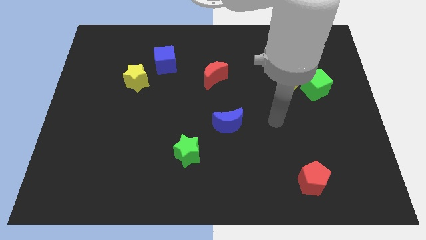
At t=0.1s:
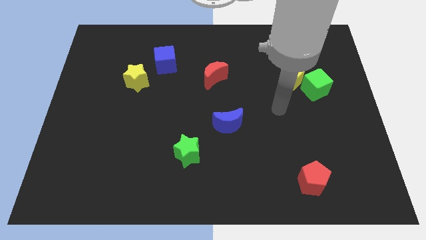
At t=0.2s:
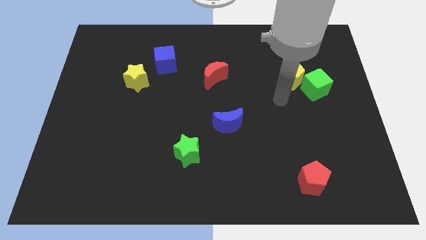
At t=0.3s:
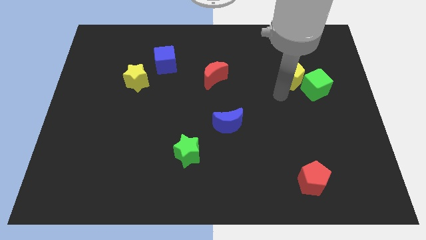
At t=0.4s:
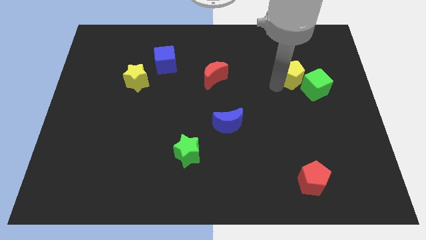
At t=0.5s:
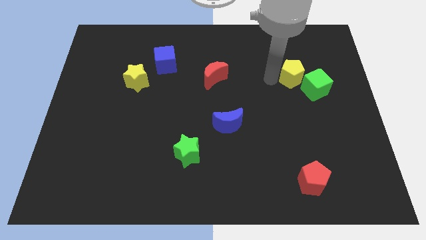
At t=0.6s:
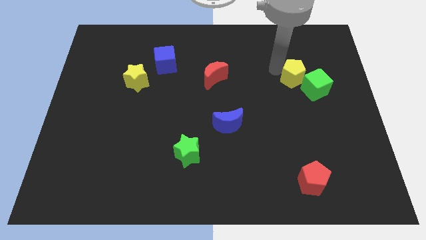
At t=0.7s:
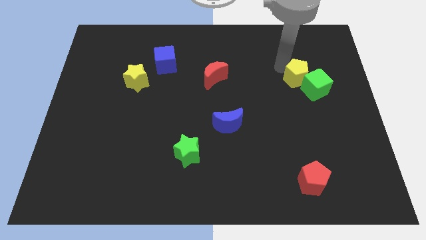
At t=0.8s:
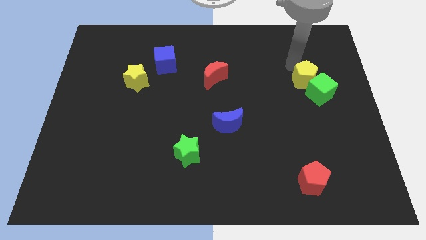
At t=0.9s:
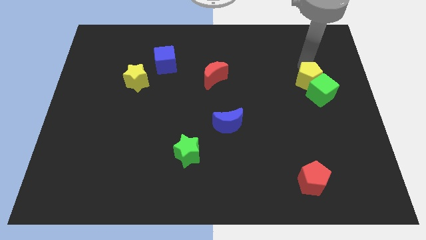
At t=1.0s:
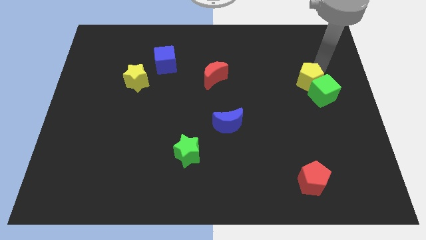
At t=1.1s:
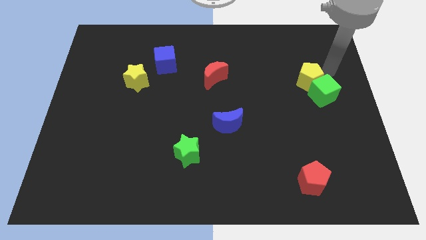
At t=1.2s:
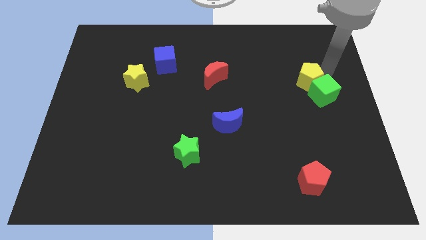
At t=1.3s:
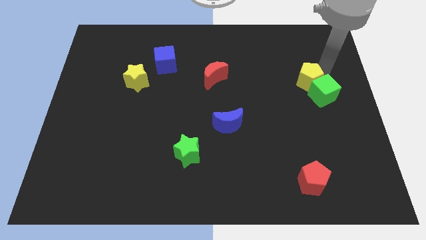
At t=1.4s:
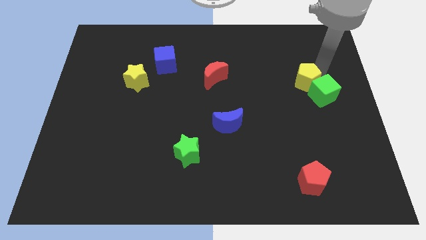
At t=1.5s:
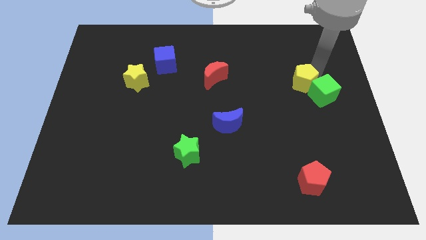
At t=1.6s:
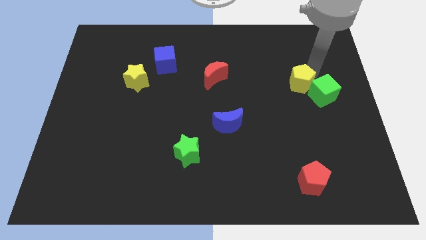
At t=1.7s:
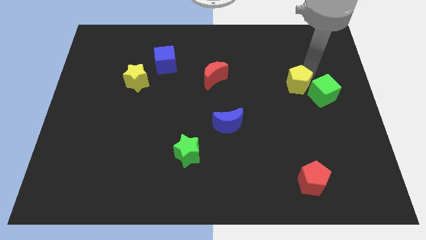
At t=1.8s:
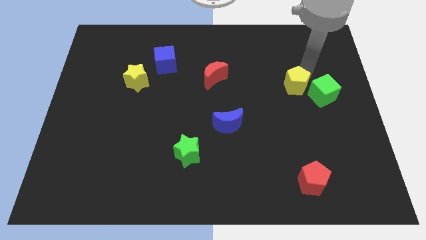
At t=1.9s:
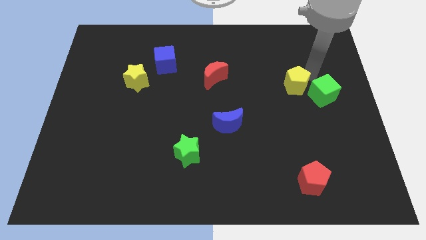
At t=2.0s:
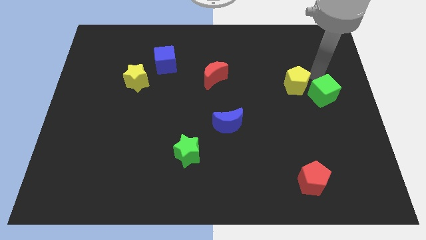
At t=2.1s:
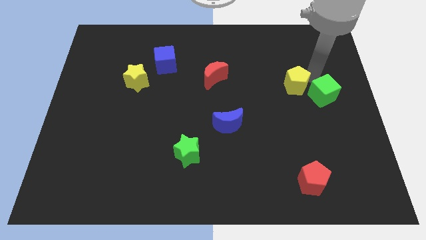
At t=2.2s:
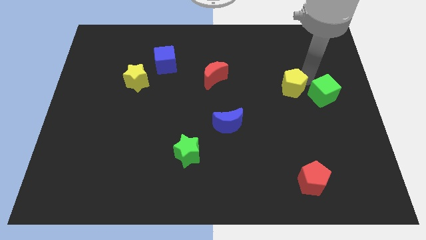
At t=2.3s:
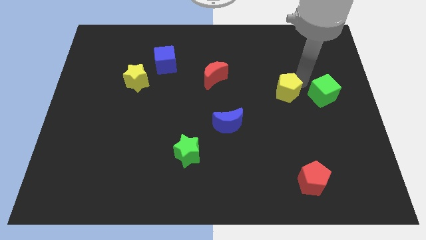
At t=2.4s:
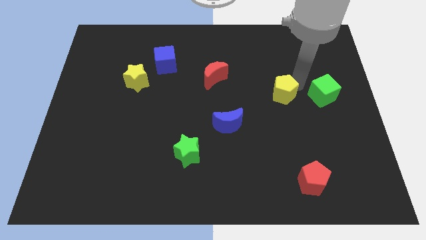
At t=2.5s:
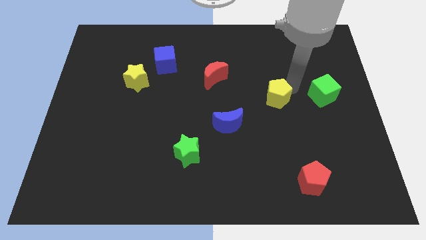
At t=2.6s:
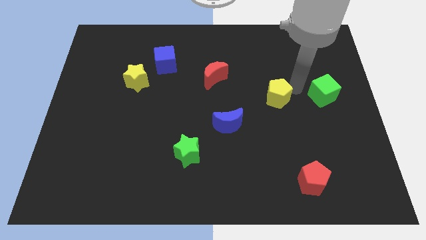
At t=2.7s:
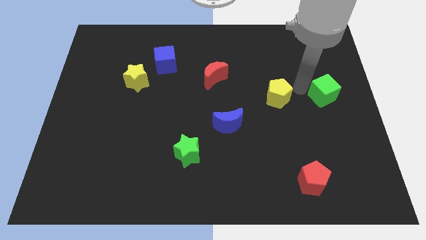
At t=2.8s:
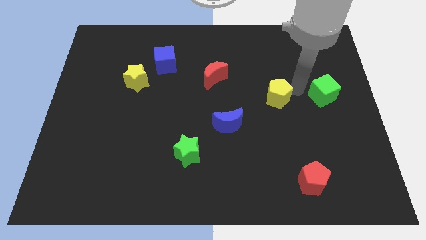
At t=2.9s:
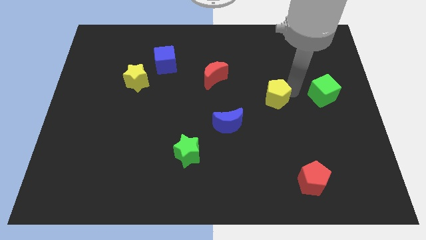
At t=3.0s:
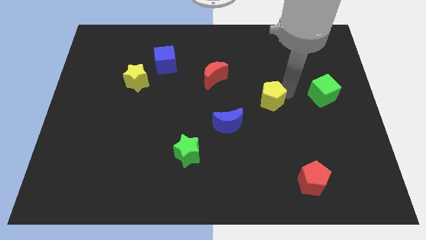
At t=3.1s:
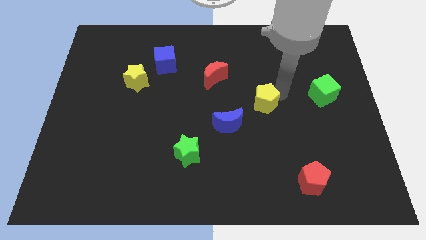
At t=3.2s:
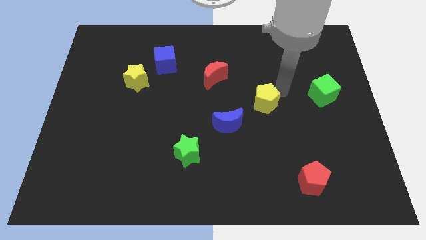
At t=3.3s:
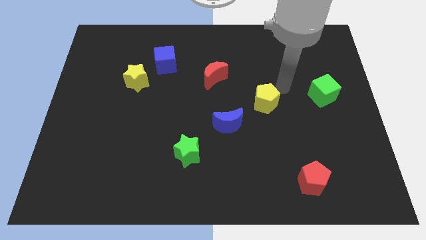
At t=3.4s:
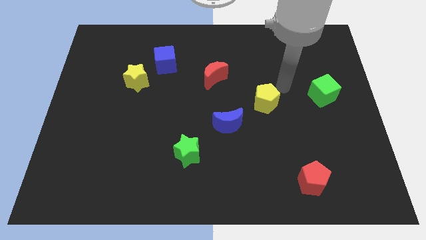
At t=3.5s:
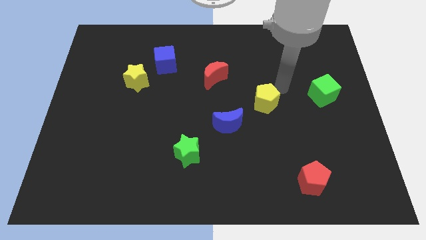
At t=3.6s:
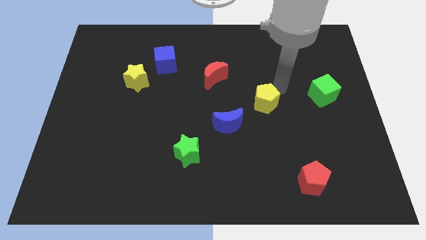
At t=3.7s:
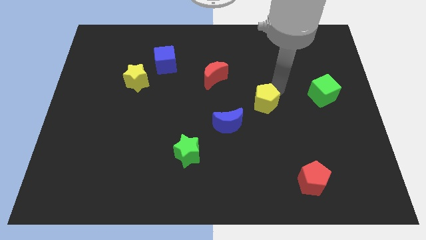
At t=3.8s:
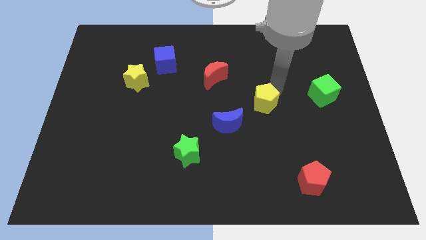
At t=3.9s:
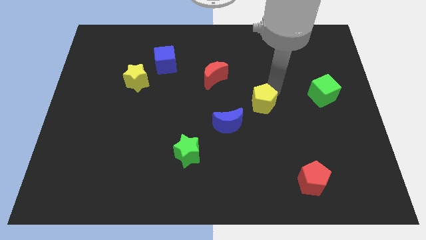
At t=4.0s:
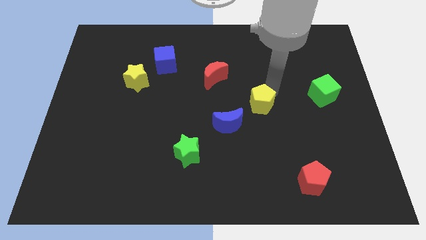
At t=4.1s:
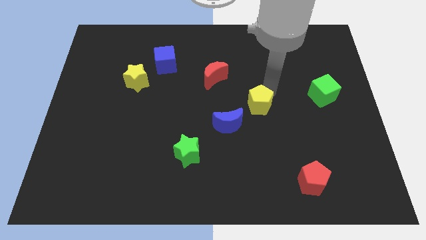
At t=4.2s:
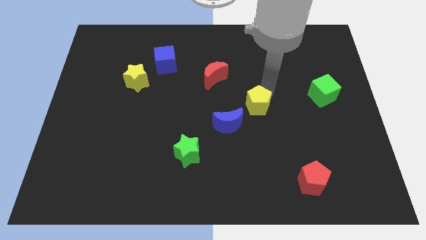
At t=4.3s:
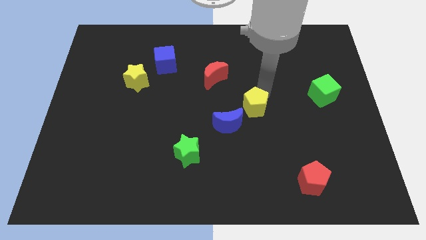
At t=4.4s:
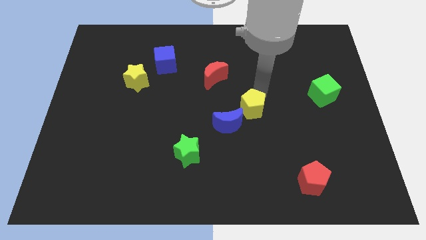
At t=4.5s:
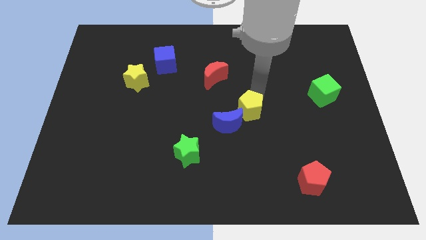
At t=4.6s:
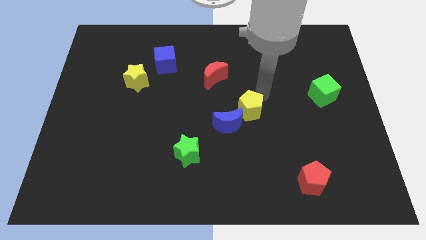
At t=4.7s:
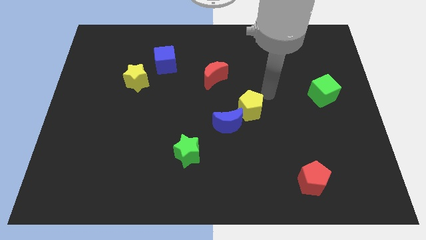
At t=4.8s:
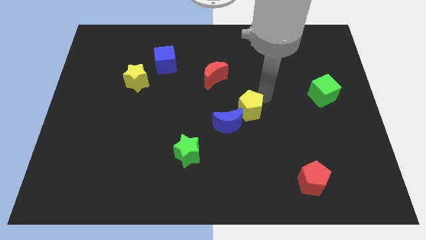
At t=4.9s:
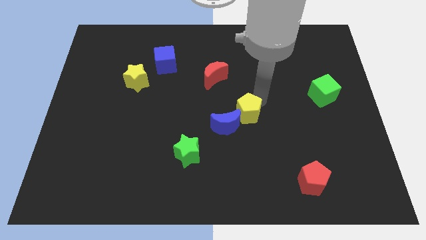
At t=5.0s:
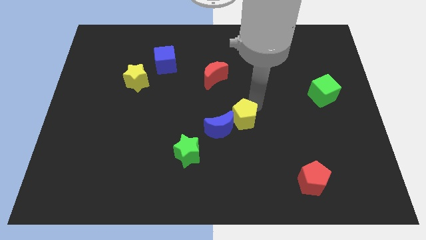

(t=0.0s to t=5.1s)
push the yellow pentagon close to the blue moon

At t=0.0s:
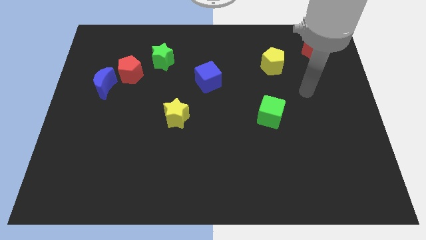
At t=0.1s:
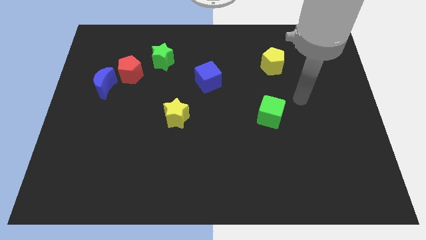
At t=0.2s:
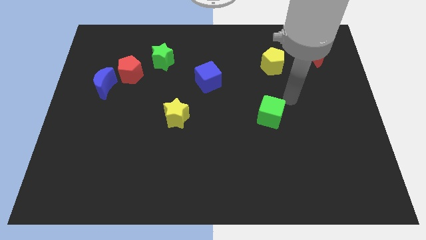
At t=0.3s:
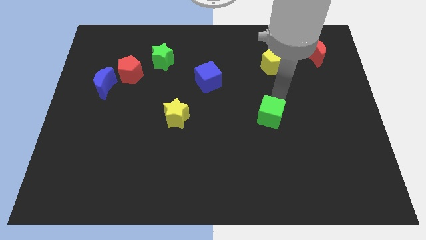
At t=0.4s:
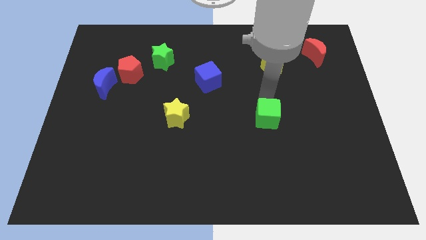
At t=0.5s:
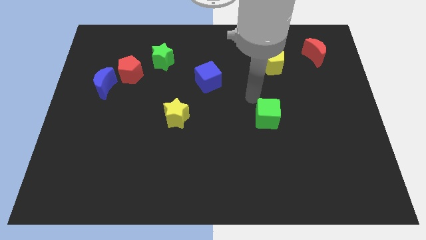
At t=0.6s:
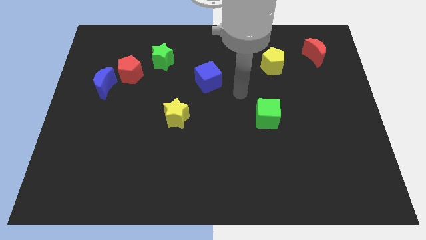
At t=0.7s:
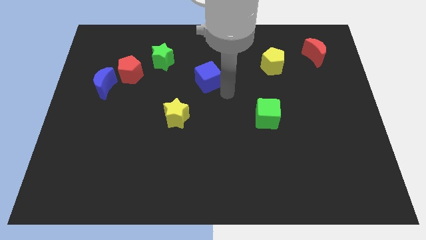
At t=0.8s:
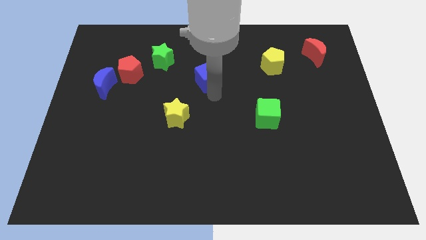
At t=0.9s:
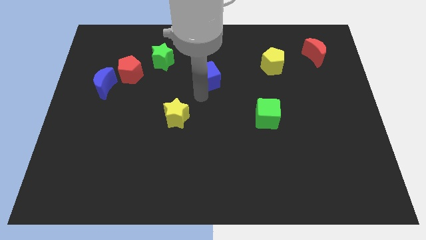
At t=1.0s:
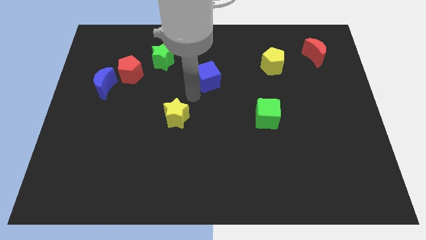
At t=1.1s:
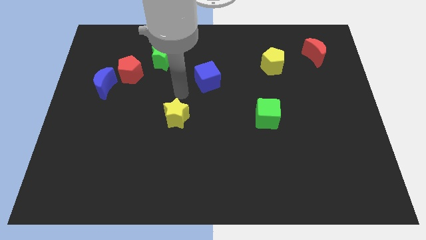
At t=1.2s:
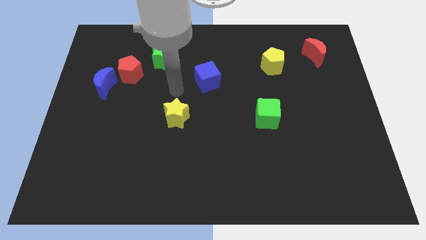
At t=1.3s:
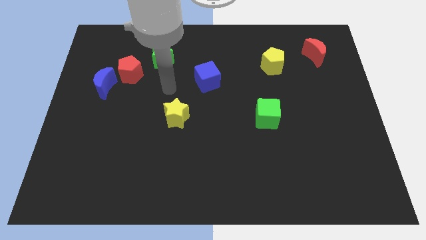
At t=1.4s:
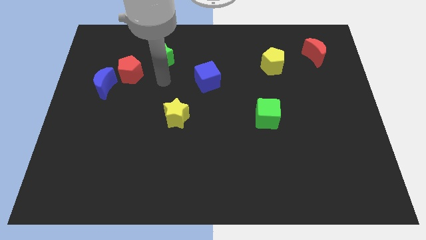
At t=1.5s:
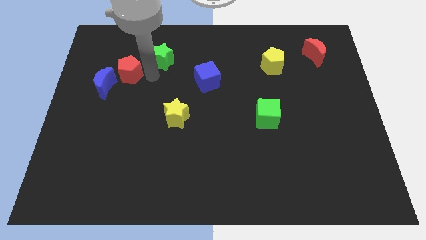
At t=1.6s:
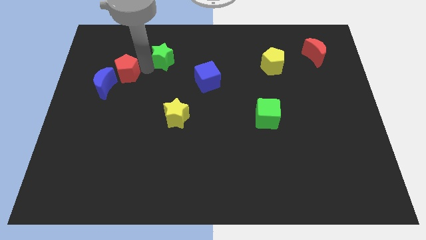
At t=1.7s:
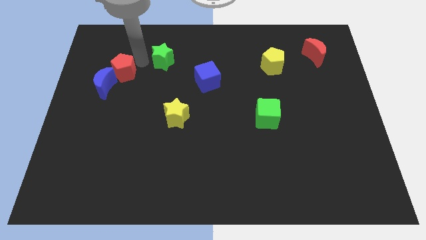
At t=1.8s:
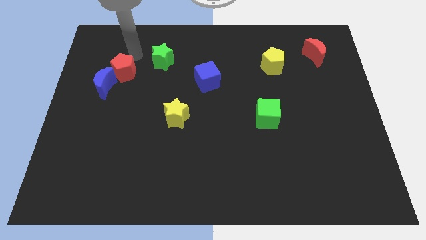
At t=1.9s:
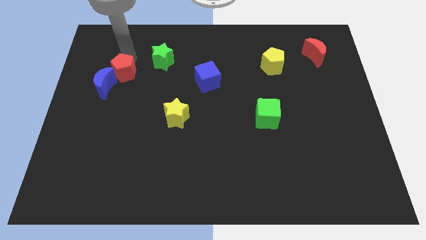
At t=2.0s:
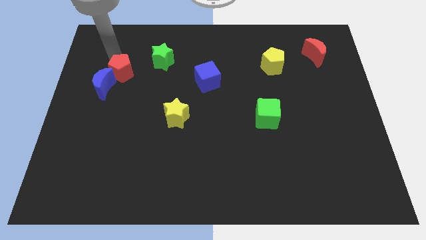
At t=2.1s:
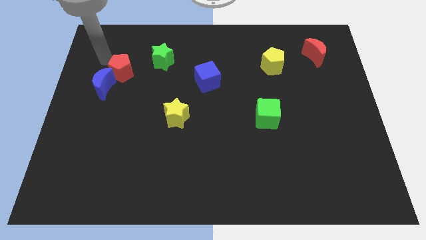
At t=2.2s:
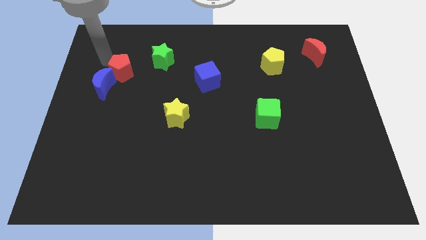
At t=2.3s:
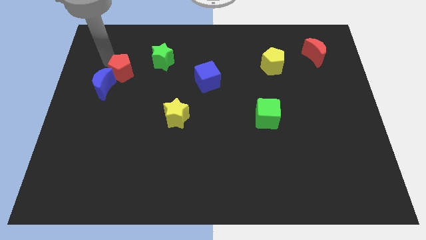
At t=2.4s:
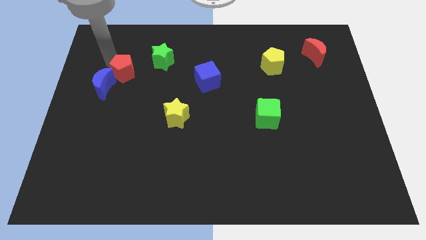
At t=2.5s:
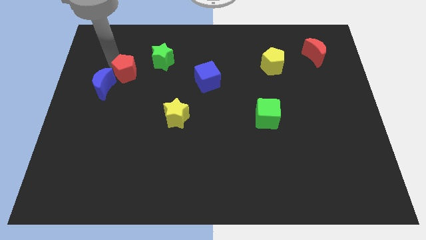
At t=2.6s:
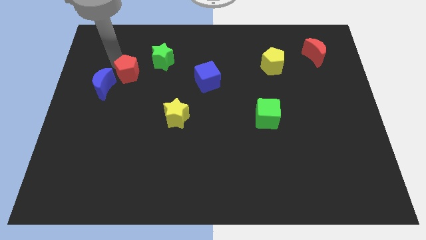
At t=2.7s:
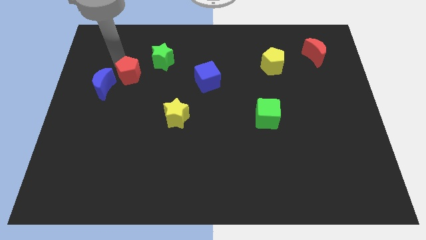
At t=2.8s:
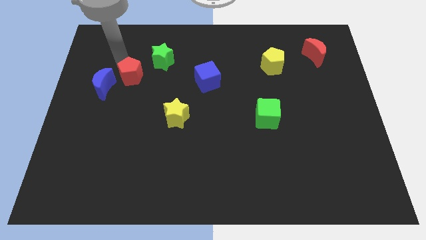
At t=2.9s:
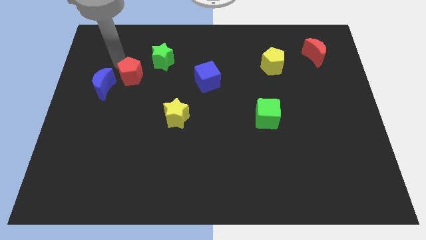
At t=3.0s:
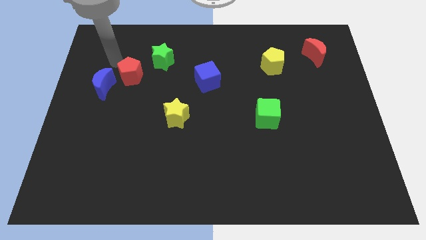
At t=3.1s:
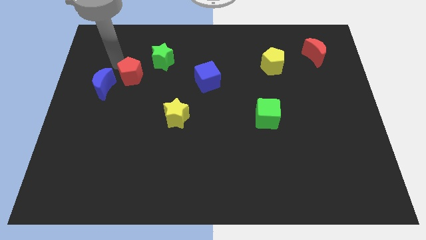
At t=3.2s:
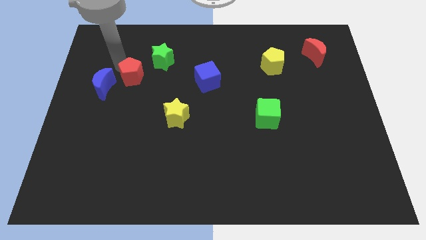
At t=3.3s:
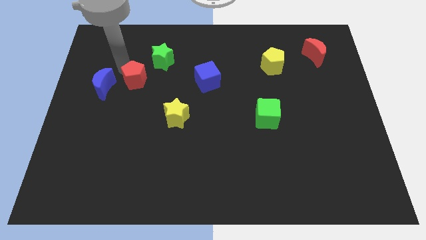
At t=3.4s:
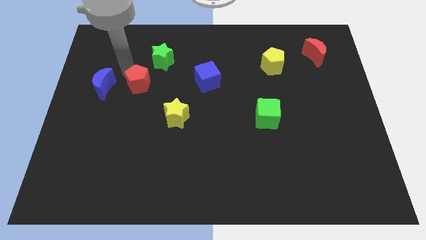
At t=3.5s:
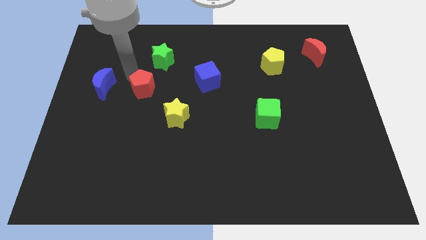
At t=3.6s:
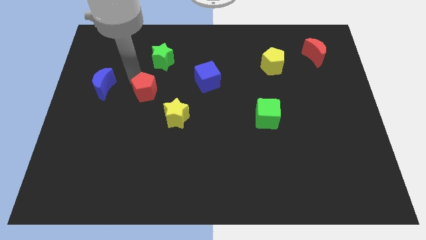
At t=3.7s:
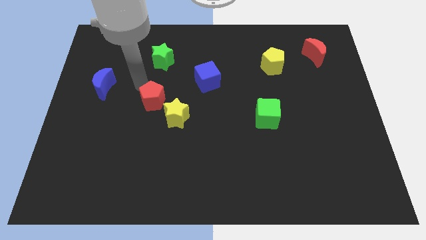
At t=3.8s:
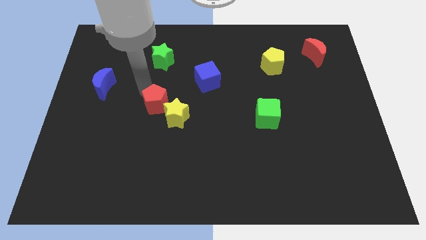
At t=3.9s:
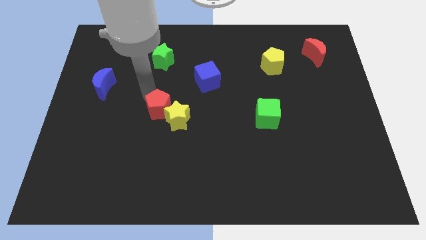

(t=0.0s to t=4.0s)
slide the red pentagon to the yellow star
